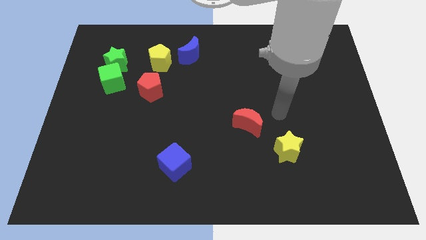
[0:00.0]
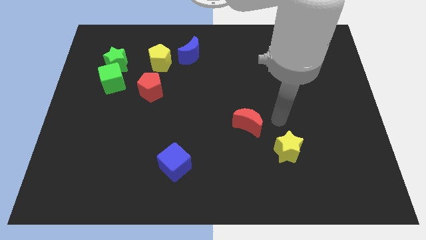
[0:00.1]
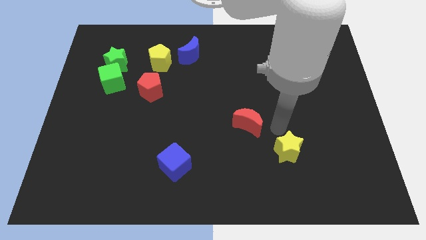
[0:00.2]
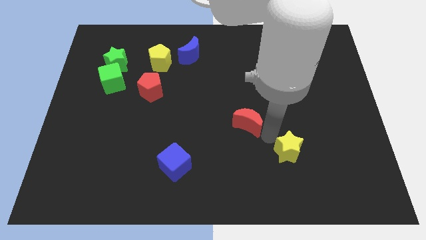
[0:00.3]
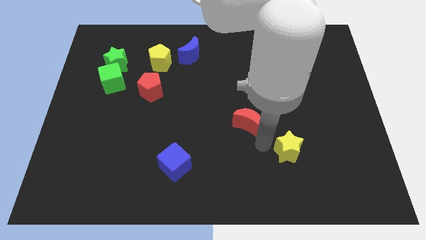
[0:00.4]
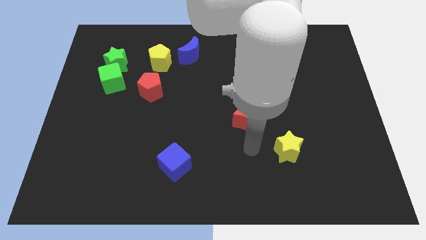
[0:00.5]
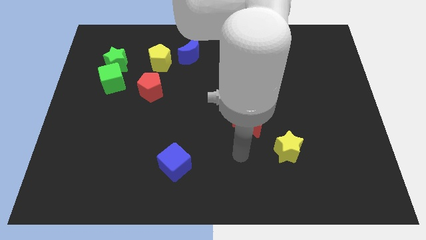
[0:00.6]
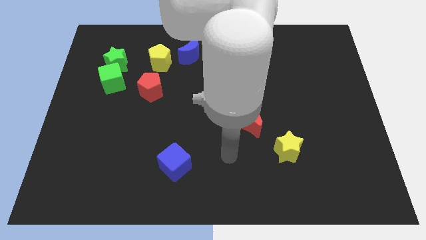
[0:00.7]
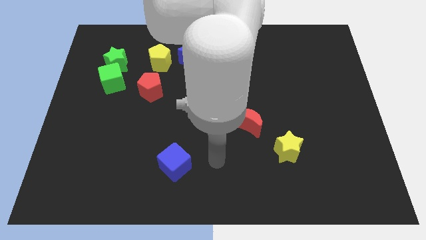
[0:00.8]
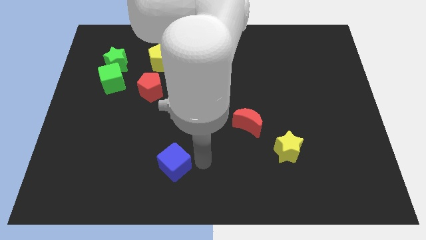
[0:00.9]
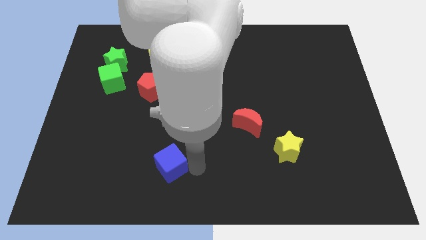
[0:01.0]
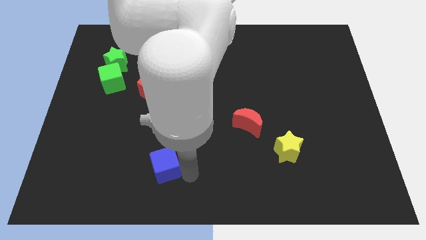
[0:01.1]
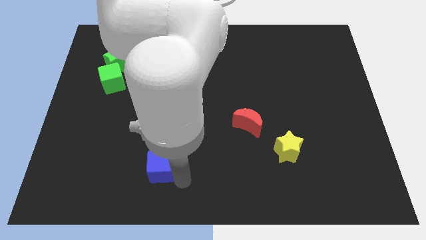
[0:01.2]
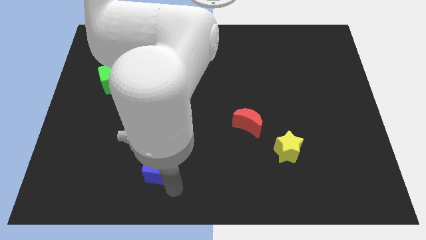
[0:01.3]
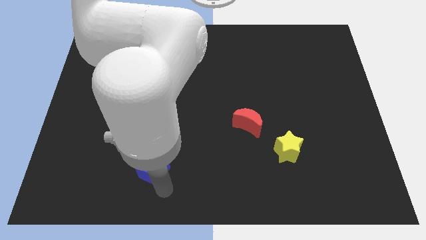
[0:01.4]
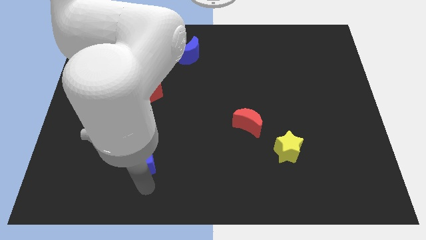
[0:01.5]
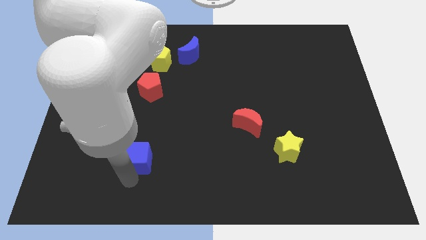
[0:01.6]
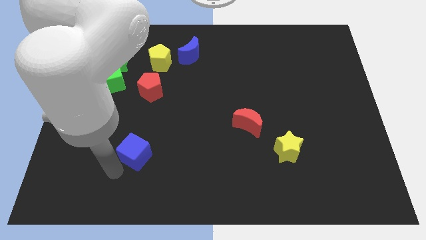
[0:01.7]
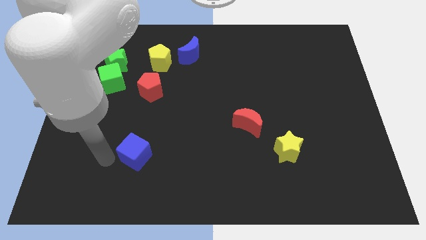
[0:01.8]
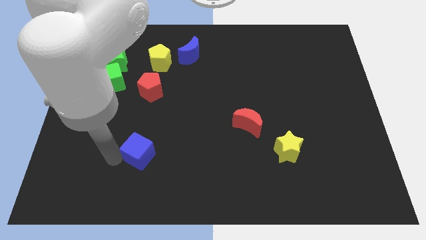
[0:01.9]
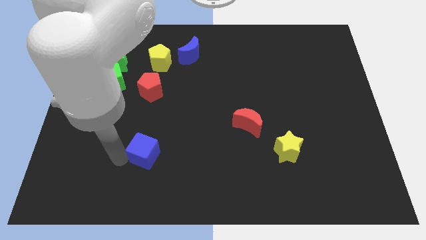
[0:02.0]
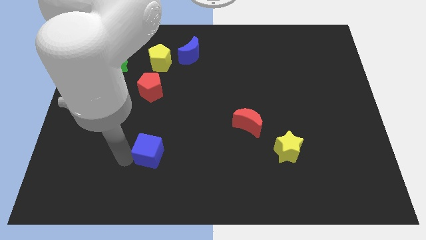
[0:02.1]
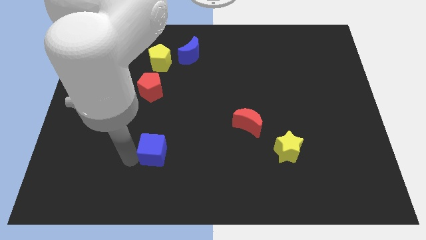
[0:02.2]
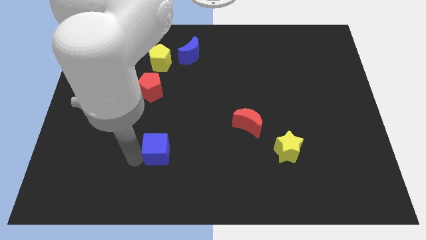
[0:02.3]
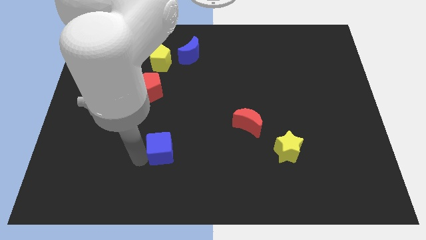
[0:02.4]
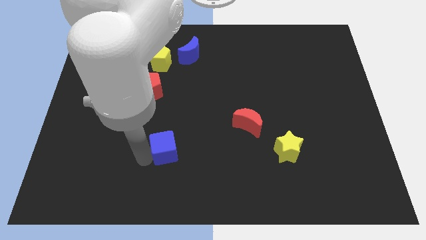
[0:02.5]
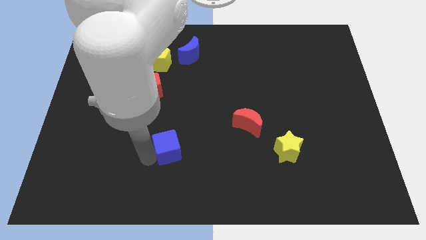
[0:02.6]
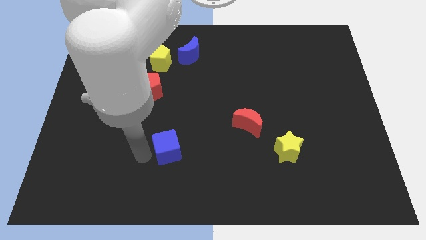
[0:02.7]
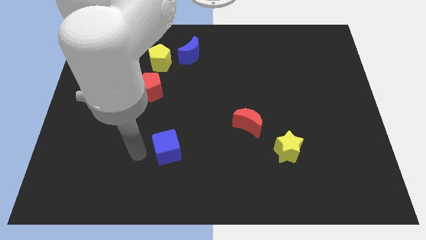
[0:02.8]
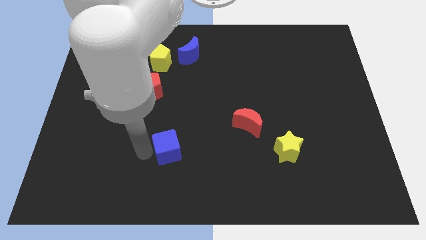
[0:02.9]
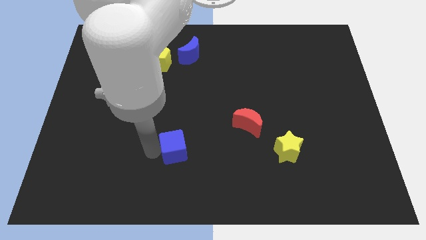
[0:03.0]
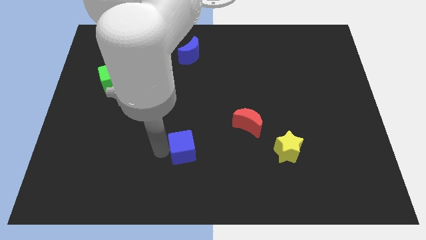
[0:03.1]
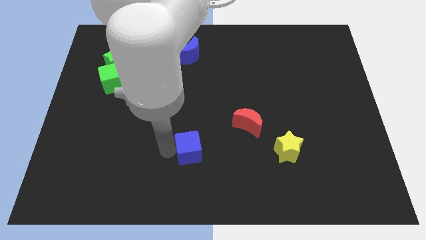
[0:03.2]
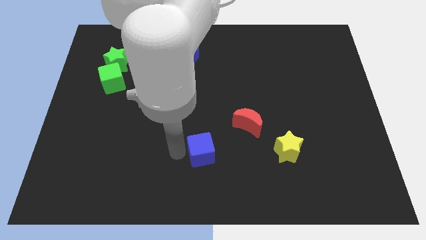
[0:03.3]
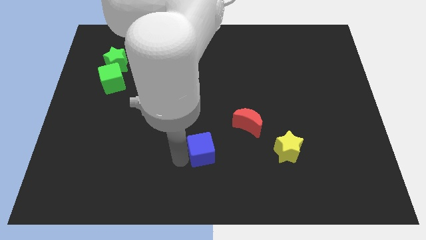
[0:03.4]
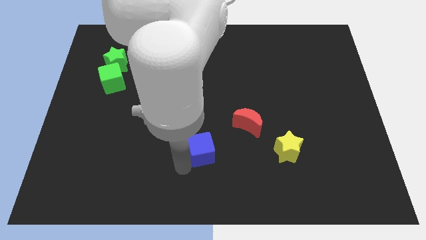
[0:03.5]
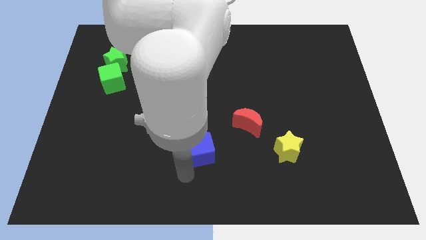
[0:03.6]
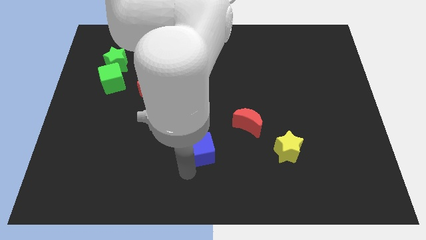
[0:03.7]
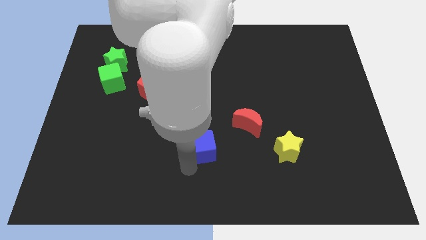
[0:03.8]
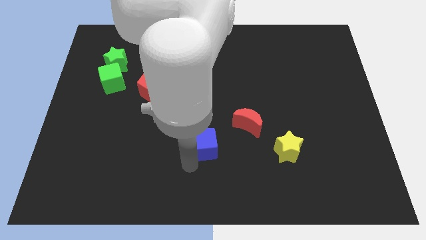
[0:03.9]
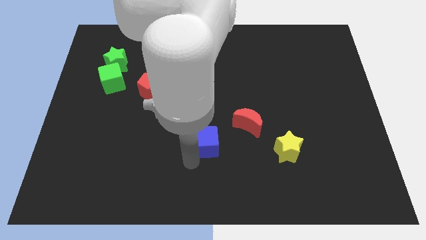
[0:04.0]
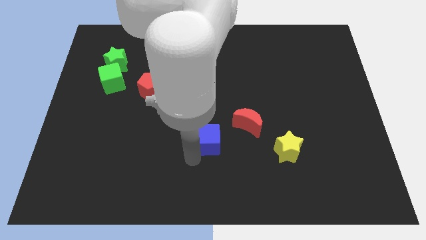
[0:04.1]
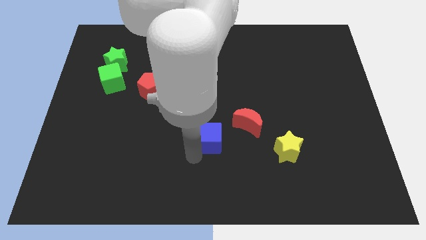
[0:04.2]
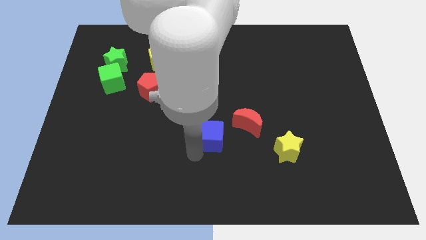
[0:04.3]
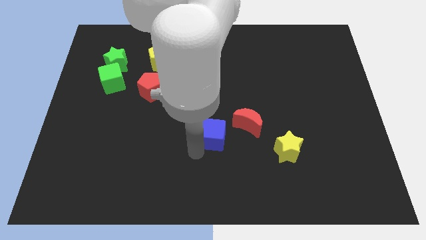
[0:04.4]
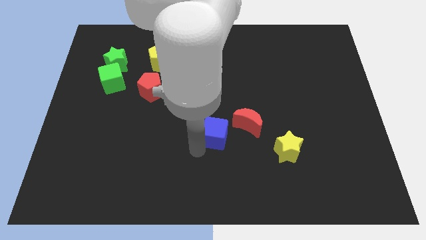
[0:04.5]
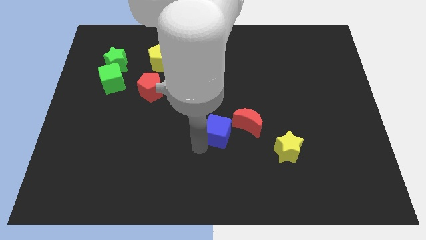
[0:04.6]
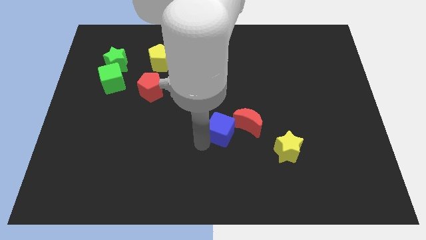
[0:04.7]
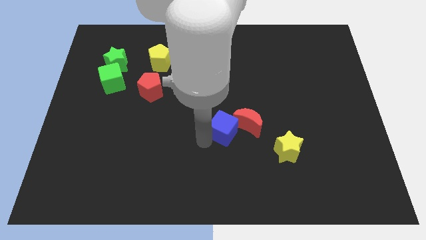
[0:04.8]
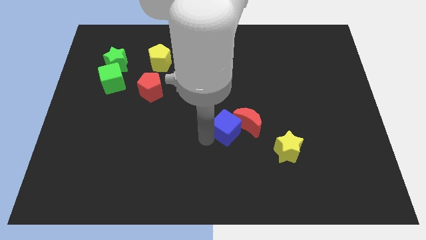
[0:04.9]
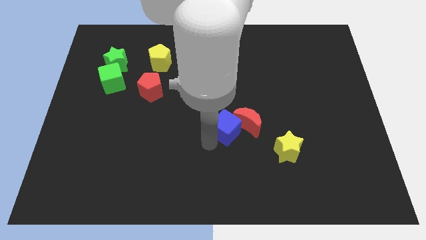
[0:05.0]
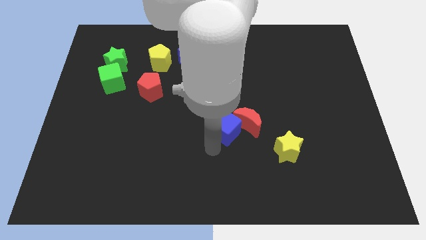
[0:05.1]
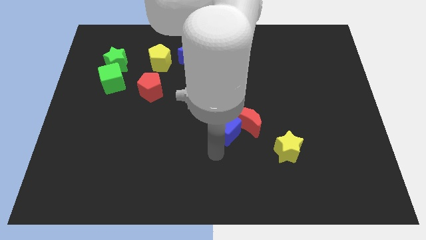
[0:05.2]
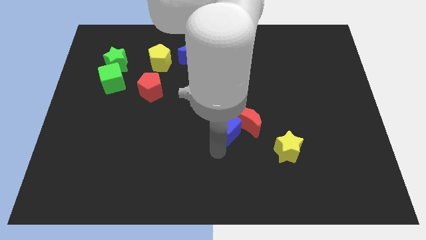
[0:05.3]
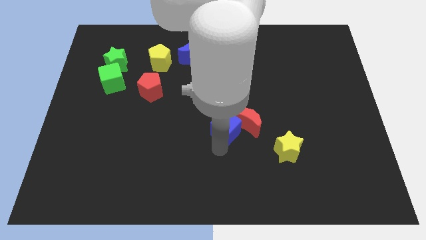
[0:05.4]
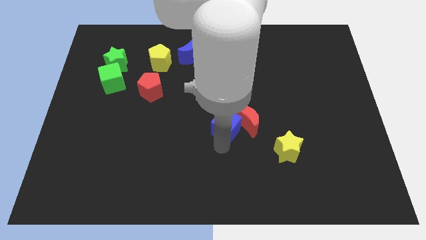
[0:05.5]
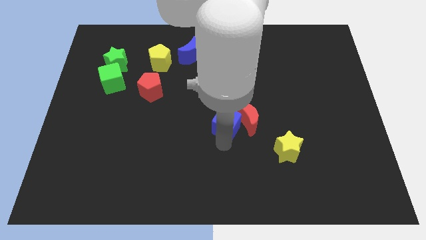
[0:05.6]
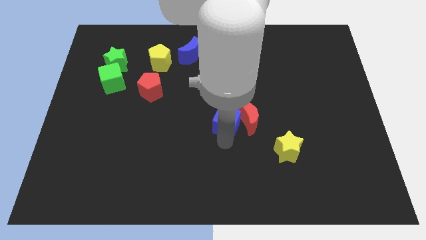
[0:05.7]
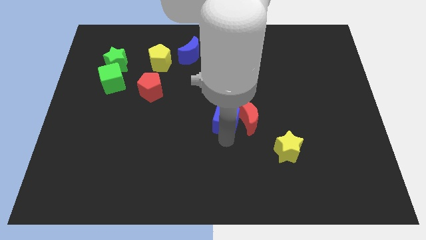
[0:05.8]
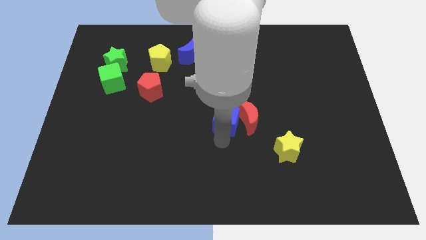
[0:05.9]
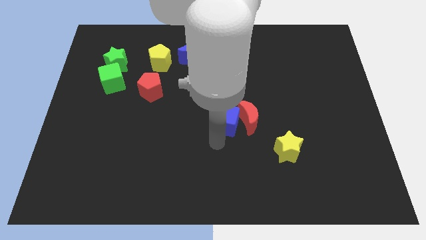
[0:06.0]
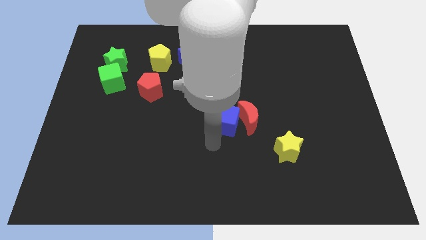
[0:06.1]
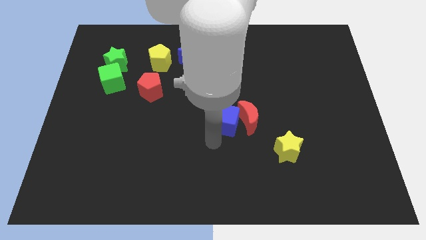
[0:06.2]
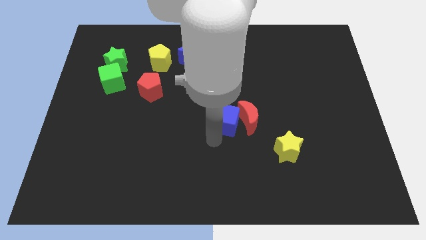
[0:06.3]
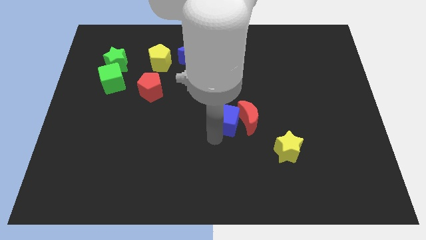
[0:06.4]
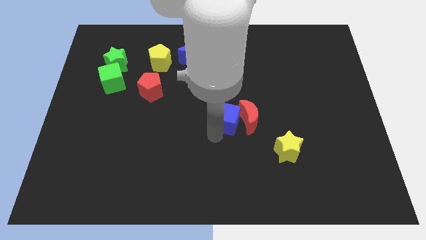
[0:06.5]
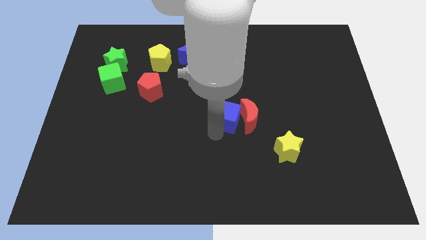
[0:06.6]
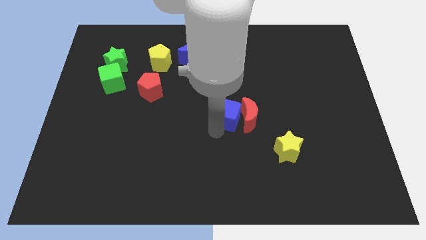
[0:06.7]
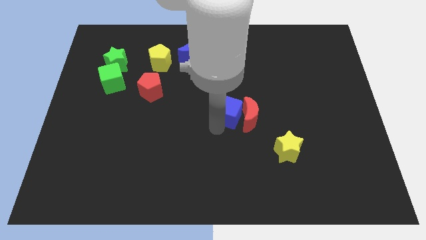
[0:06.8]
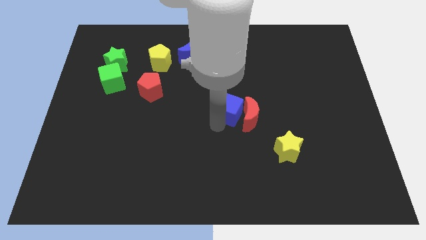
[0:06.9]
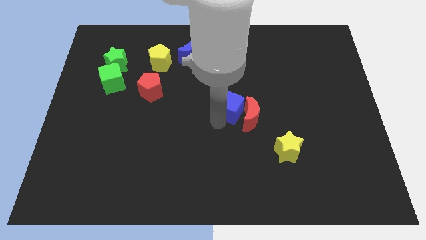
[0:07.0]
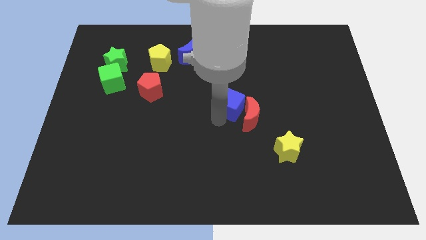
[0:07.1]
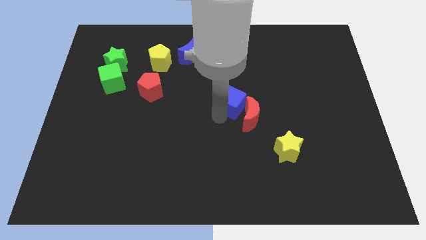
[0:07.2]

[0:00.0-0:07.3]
push the blue cube diagonally up and right

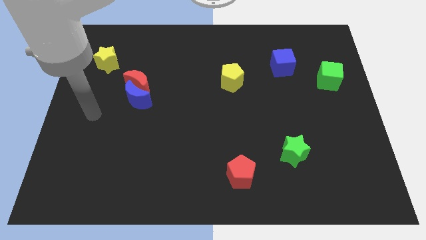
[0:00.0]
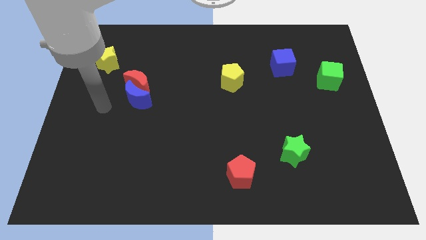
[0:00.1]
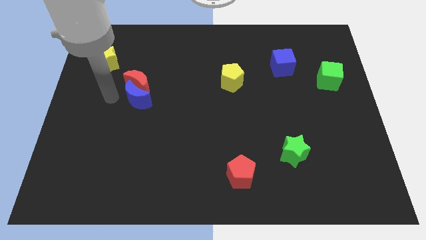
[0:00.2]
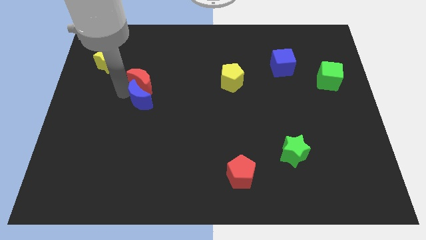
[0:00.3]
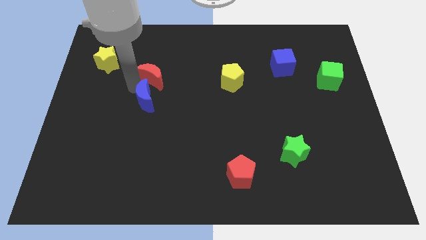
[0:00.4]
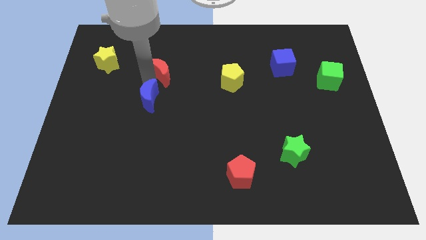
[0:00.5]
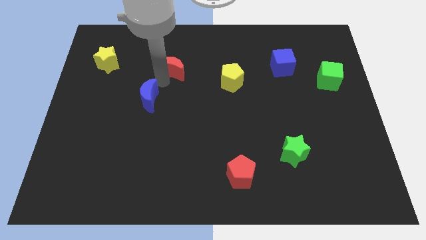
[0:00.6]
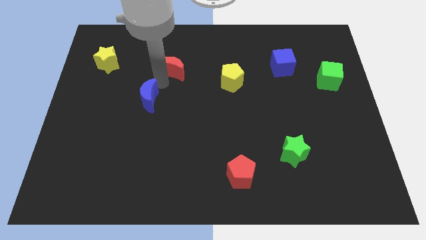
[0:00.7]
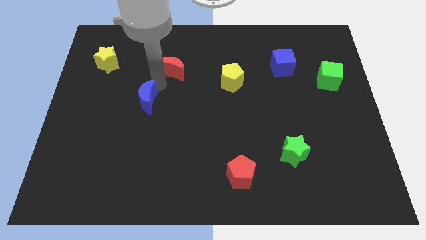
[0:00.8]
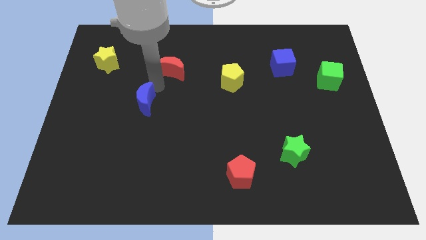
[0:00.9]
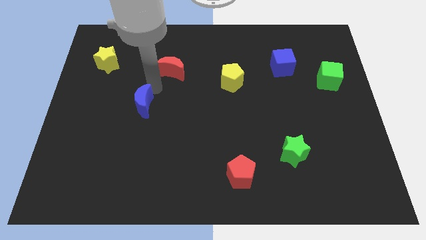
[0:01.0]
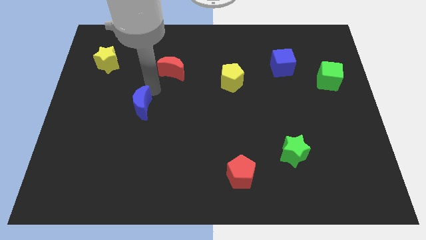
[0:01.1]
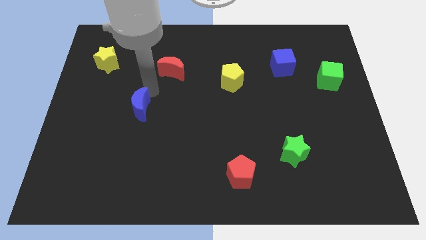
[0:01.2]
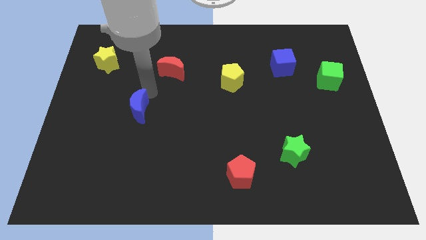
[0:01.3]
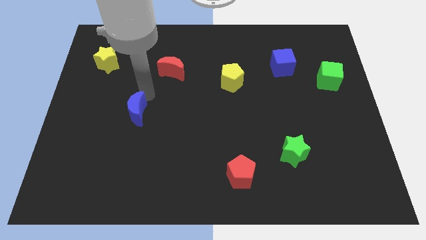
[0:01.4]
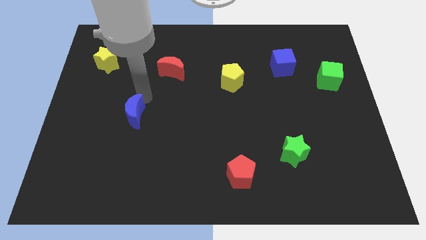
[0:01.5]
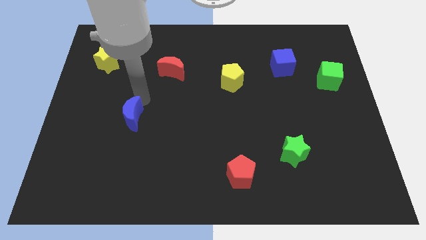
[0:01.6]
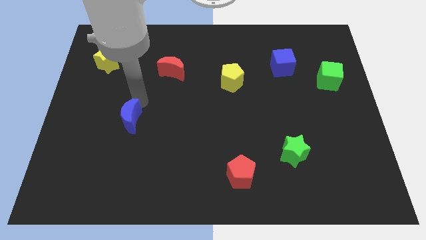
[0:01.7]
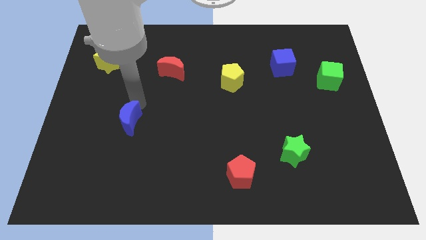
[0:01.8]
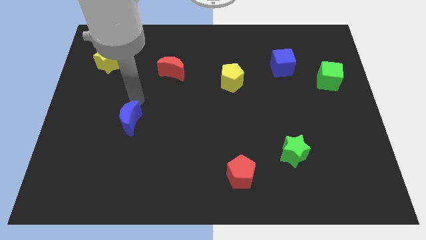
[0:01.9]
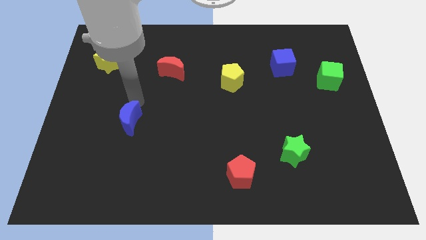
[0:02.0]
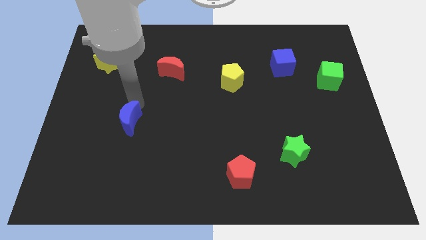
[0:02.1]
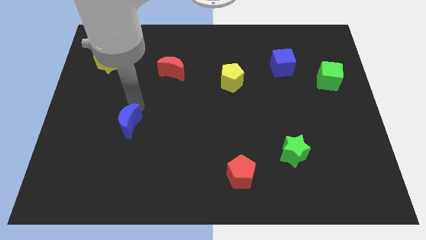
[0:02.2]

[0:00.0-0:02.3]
slightly push the blue moon down
